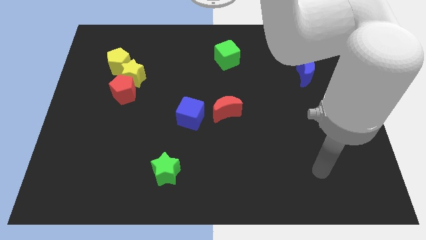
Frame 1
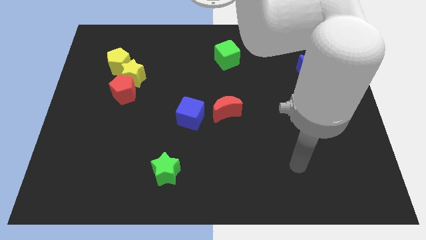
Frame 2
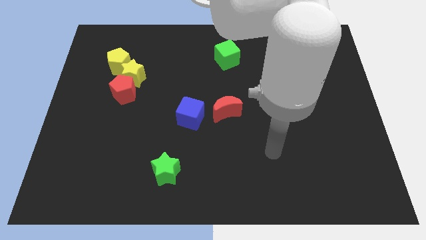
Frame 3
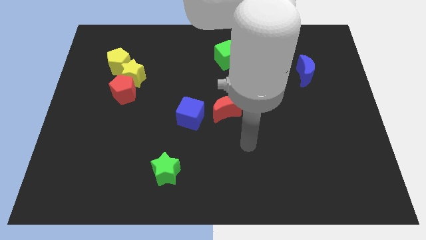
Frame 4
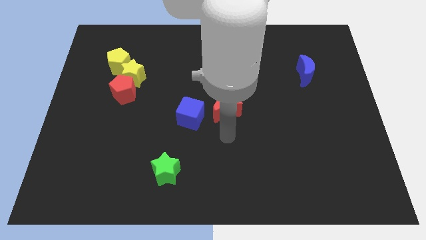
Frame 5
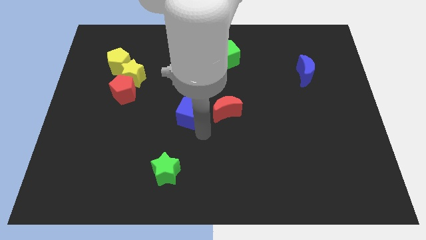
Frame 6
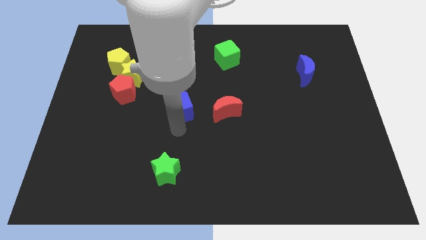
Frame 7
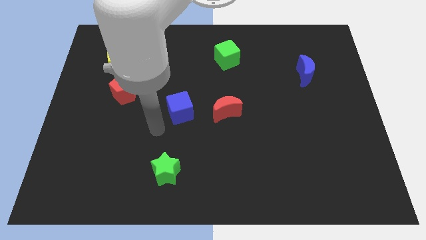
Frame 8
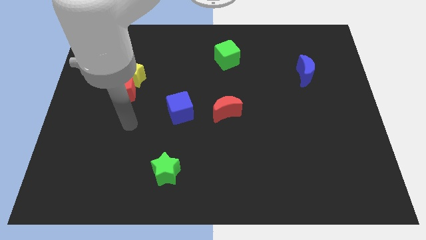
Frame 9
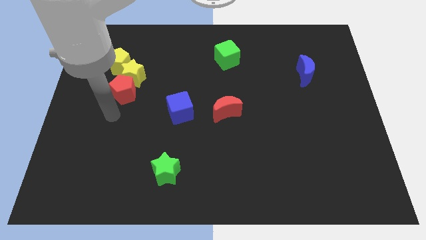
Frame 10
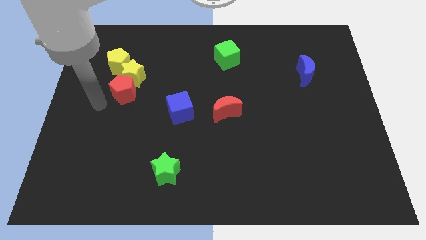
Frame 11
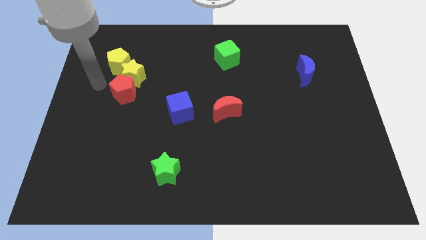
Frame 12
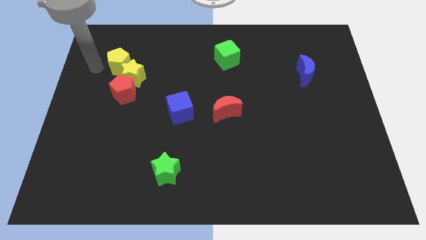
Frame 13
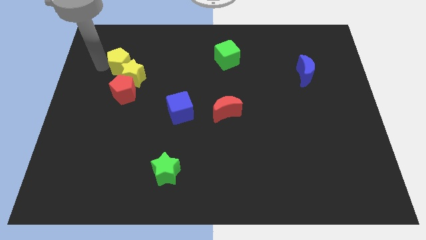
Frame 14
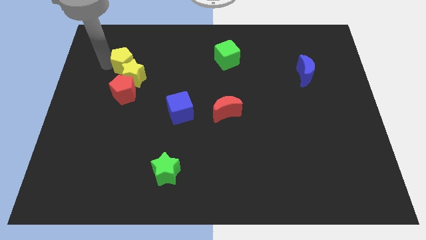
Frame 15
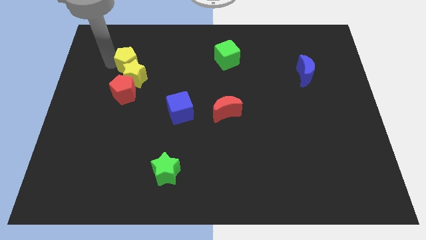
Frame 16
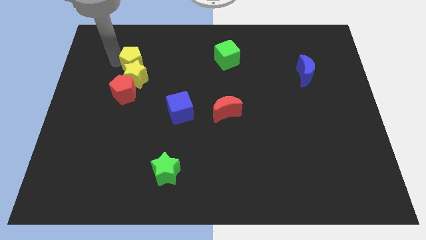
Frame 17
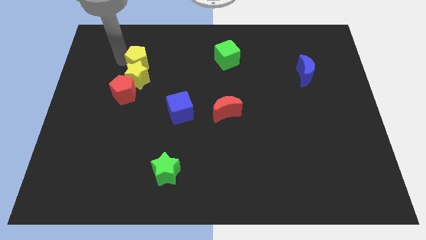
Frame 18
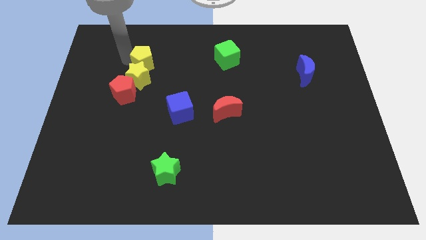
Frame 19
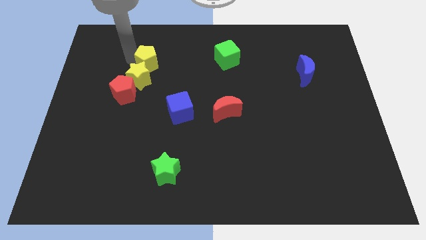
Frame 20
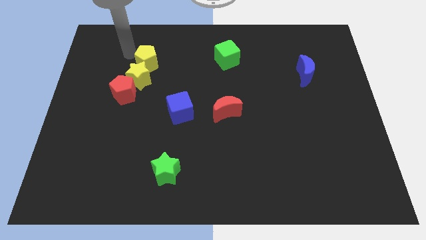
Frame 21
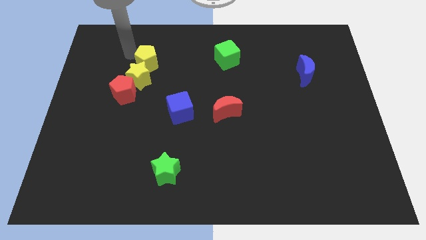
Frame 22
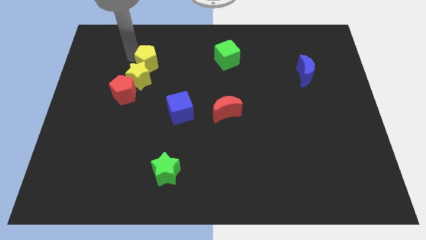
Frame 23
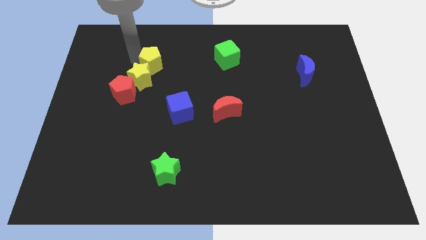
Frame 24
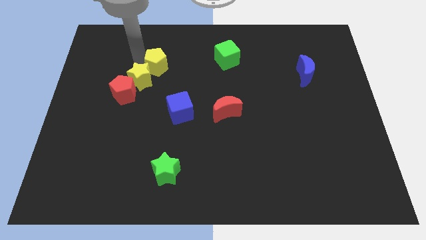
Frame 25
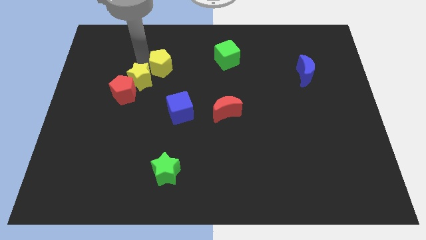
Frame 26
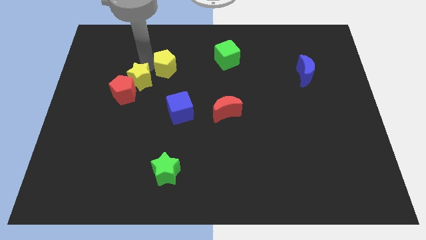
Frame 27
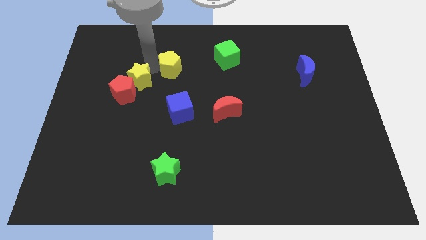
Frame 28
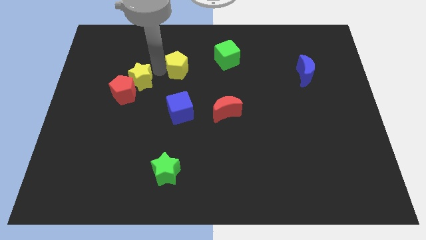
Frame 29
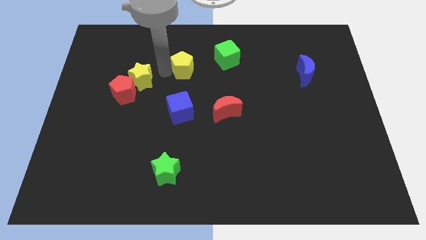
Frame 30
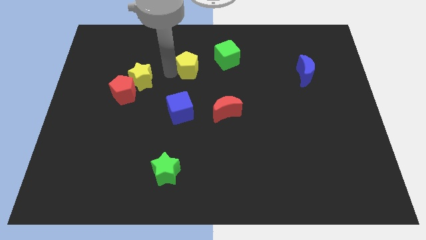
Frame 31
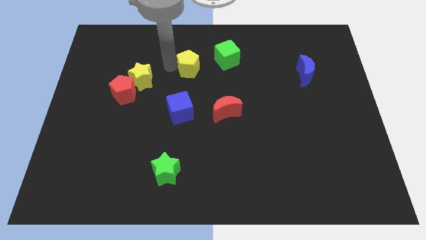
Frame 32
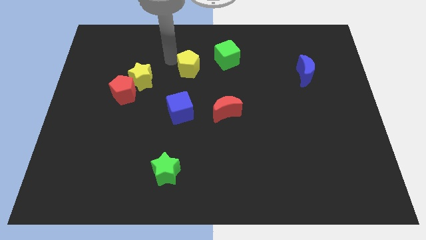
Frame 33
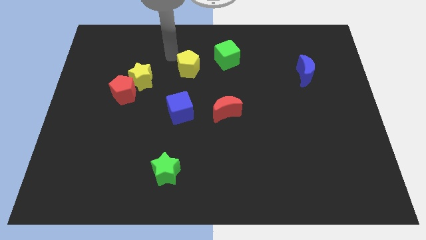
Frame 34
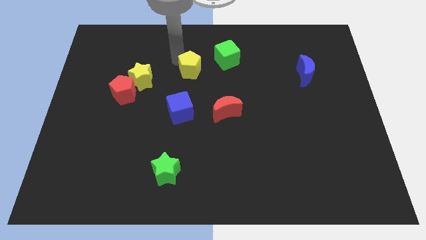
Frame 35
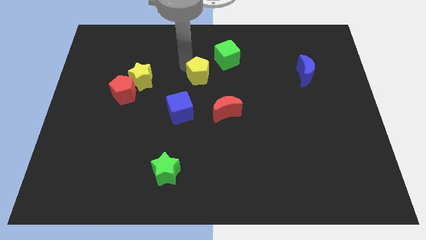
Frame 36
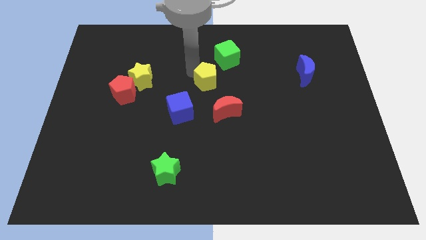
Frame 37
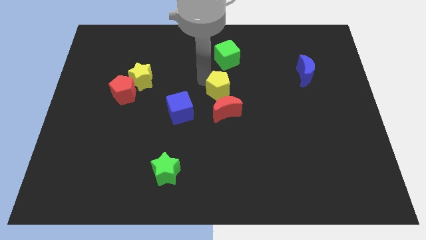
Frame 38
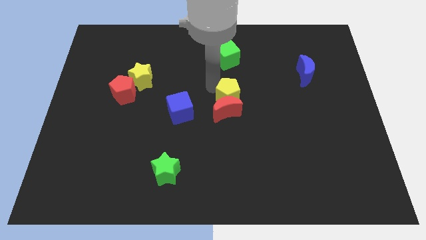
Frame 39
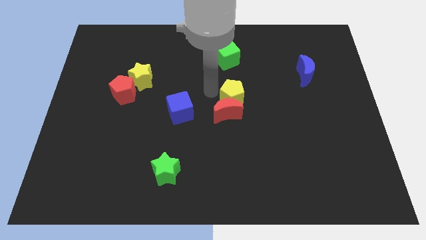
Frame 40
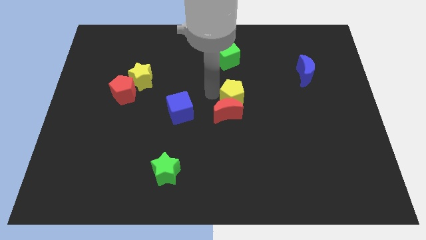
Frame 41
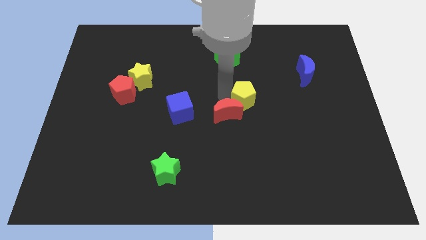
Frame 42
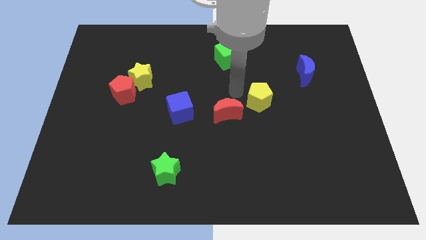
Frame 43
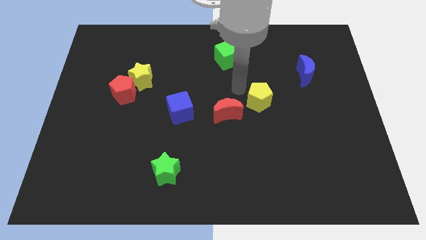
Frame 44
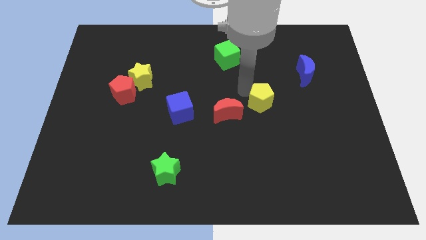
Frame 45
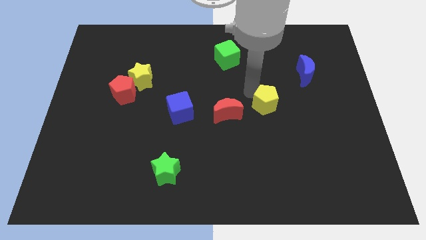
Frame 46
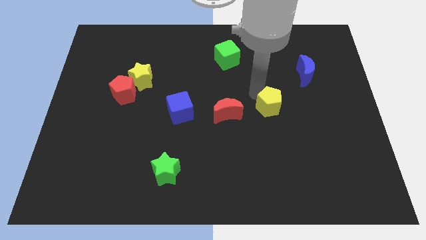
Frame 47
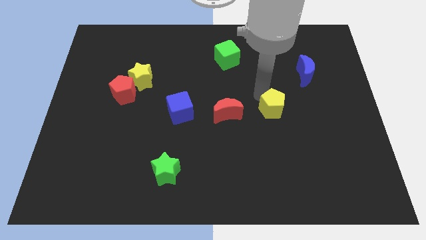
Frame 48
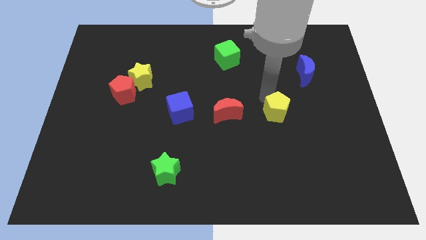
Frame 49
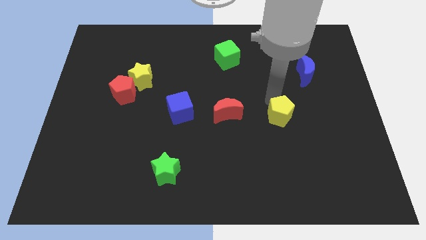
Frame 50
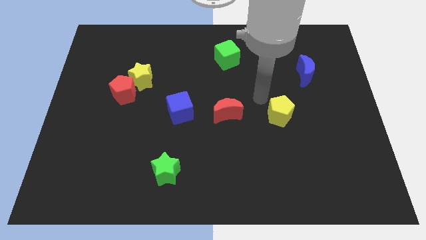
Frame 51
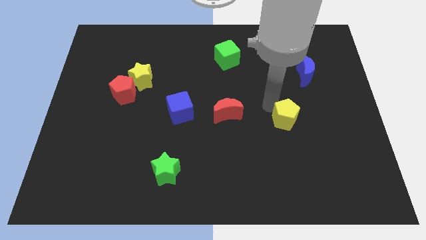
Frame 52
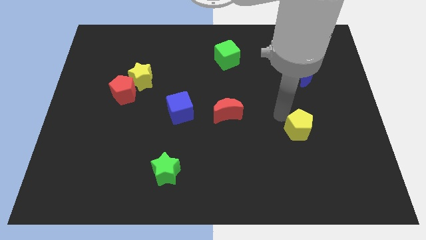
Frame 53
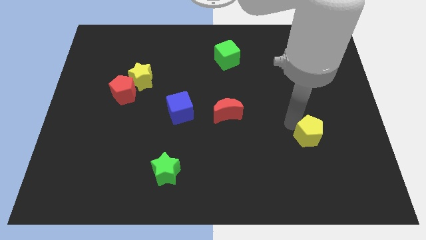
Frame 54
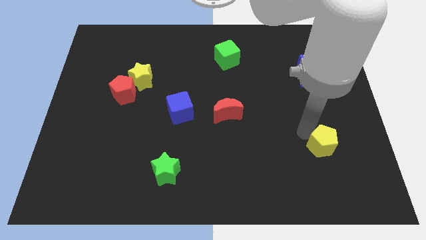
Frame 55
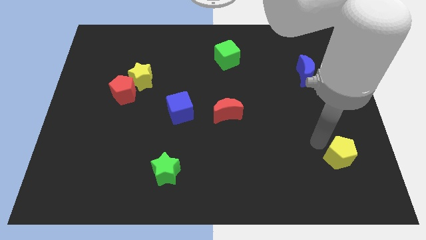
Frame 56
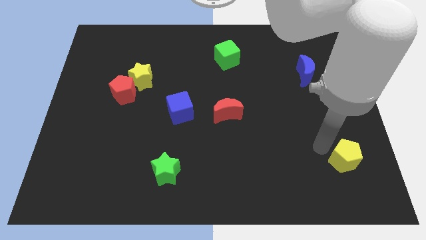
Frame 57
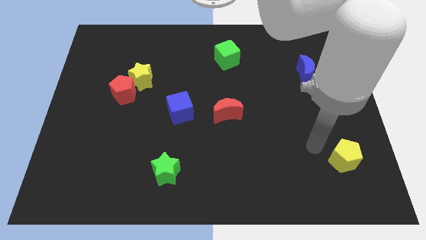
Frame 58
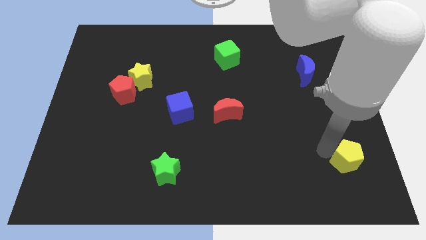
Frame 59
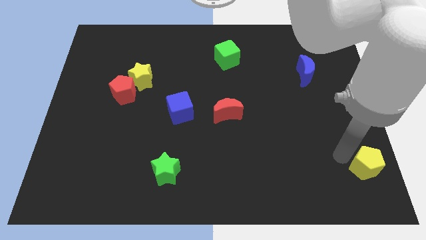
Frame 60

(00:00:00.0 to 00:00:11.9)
put the yellow pentagon to the bottom right corner

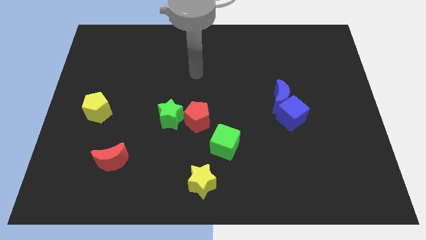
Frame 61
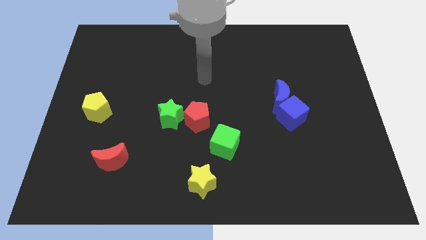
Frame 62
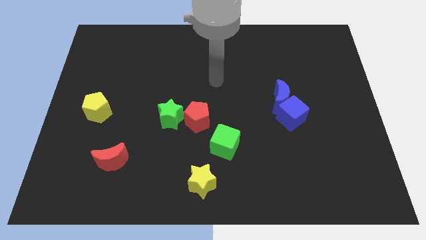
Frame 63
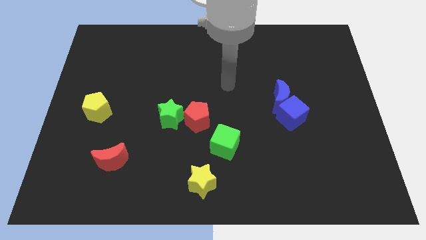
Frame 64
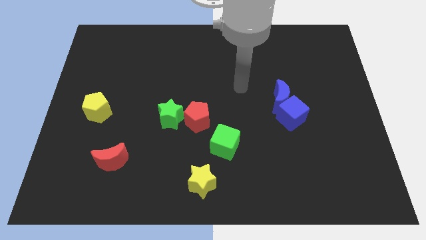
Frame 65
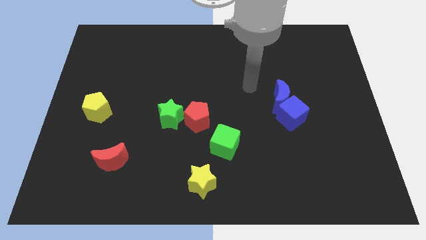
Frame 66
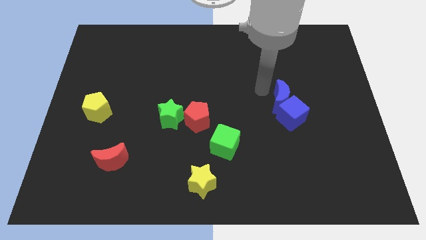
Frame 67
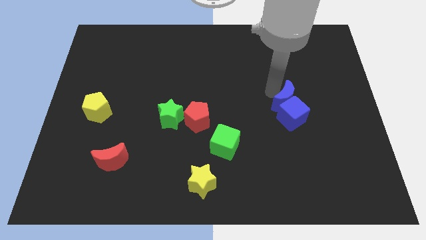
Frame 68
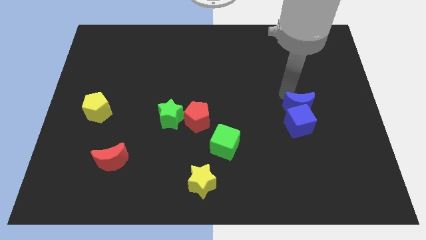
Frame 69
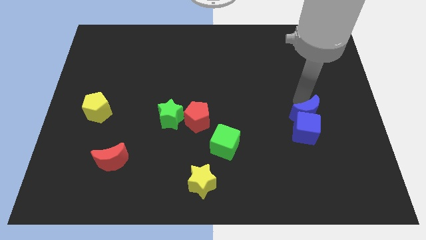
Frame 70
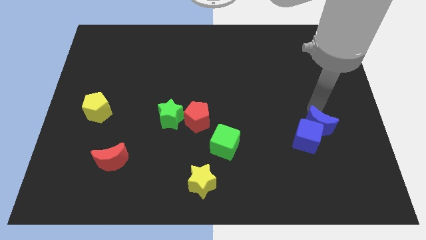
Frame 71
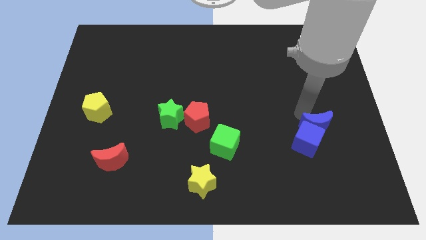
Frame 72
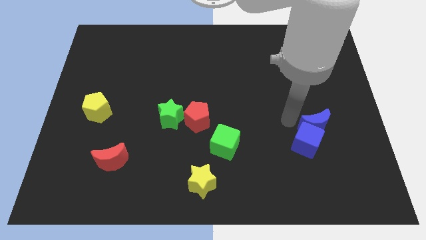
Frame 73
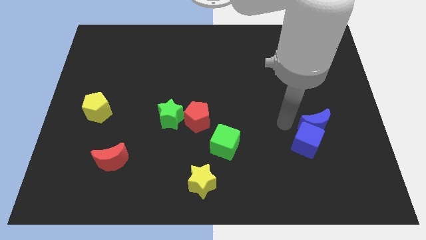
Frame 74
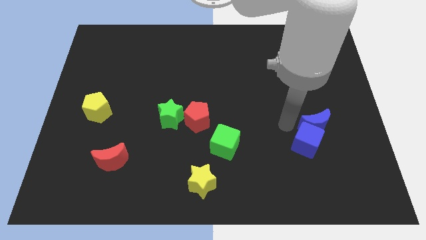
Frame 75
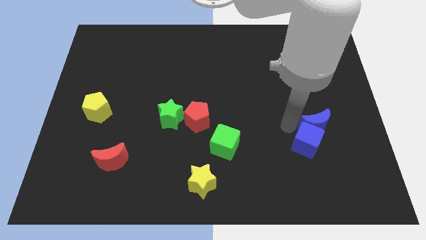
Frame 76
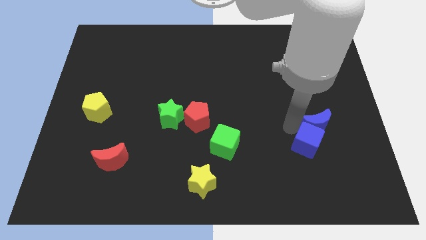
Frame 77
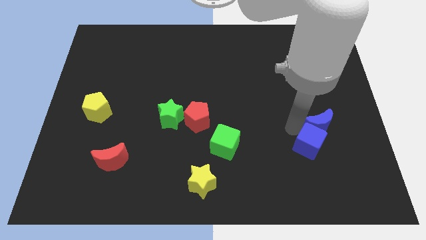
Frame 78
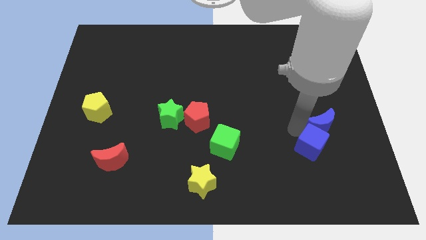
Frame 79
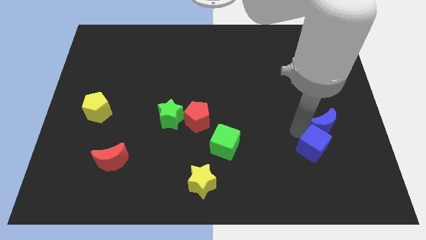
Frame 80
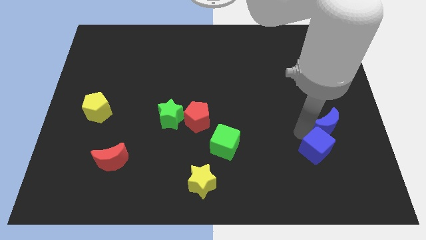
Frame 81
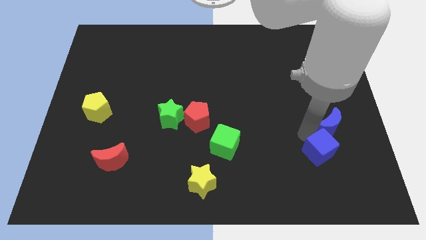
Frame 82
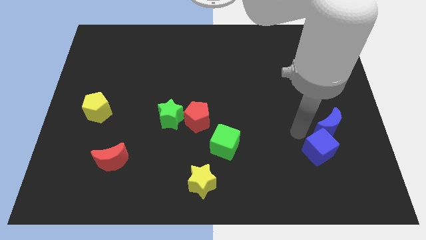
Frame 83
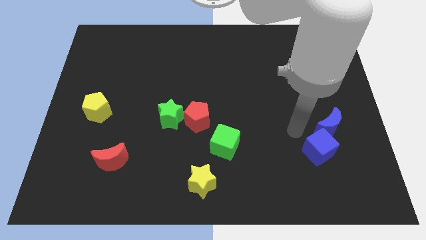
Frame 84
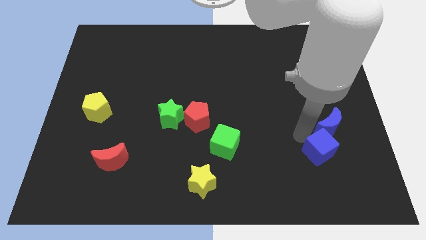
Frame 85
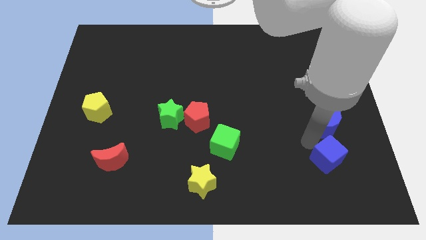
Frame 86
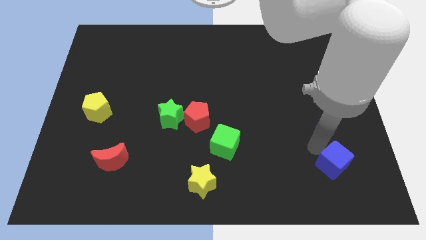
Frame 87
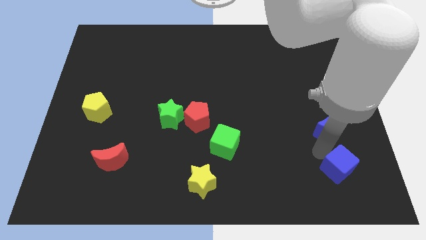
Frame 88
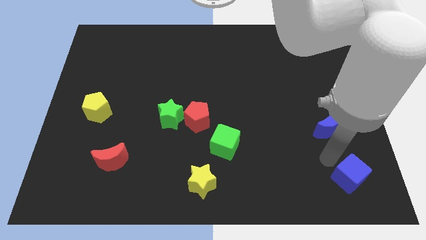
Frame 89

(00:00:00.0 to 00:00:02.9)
put the blue cube to the bottom right corner
